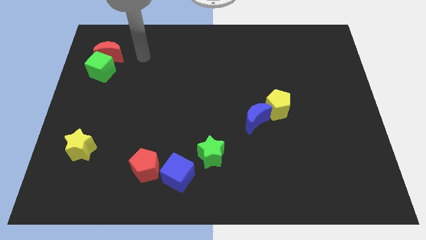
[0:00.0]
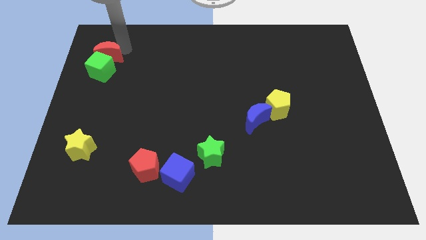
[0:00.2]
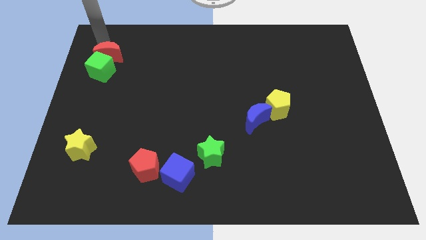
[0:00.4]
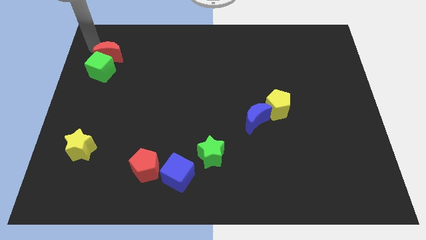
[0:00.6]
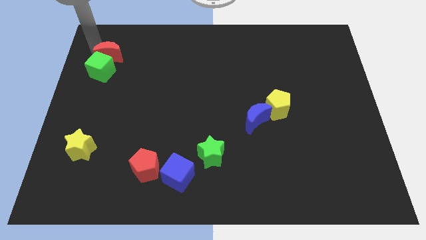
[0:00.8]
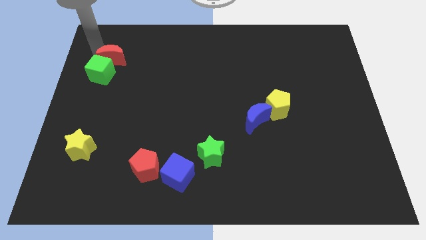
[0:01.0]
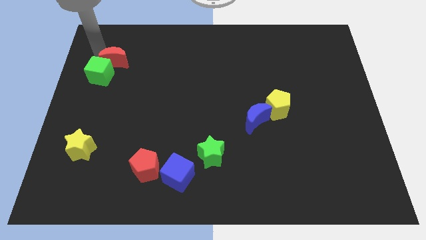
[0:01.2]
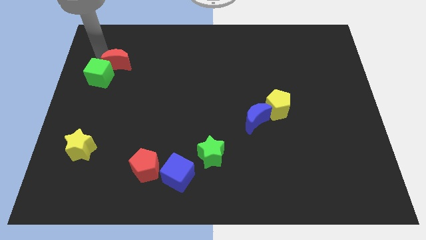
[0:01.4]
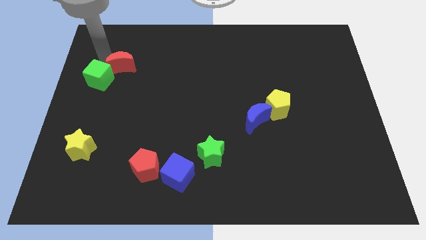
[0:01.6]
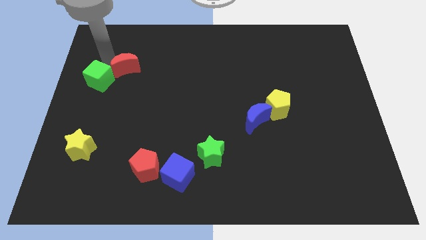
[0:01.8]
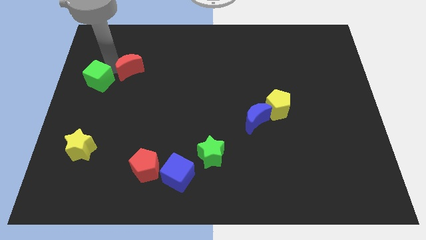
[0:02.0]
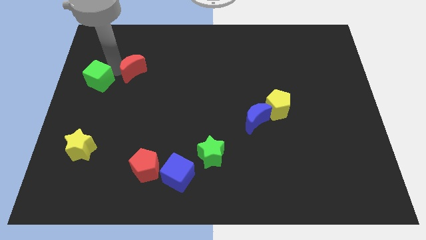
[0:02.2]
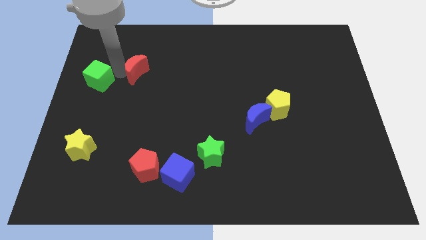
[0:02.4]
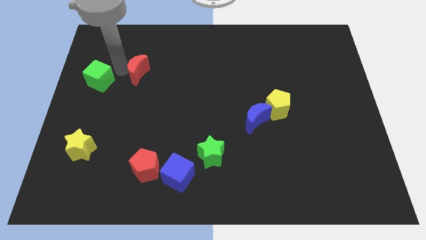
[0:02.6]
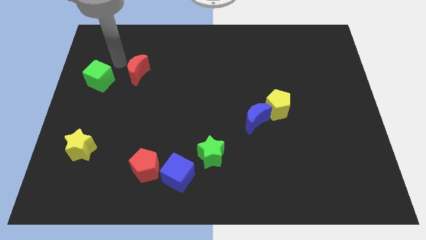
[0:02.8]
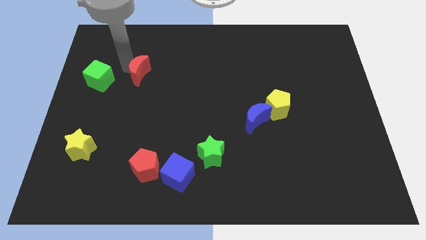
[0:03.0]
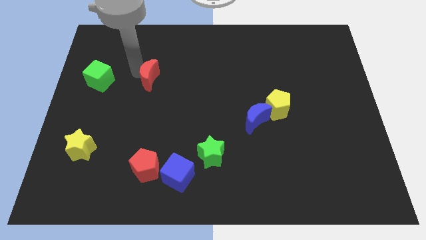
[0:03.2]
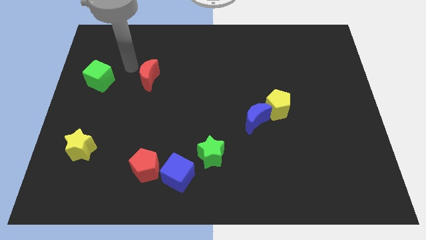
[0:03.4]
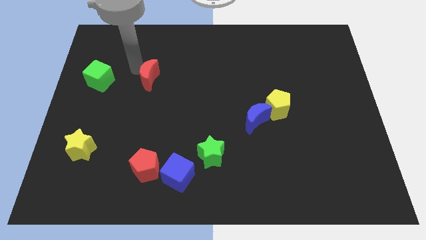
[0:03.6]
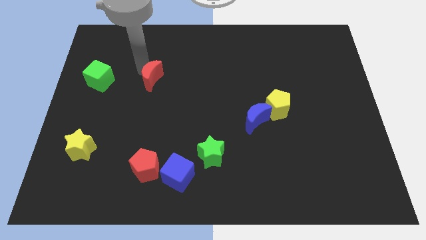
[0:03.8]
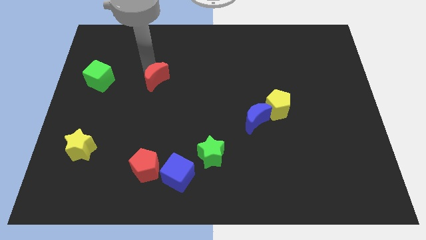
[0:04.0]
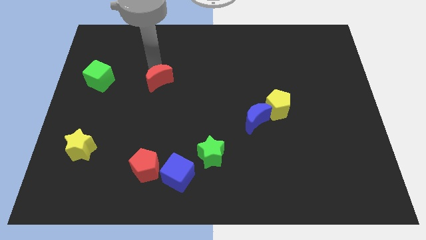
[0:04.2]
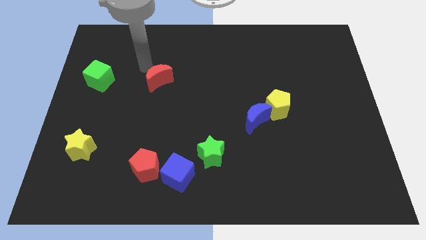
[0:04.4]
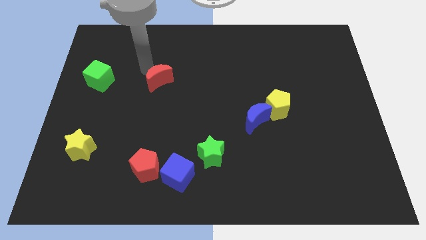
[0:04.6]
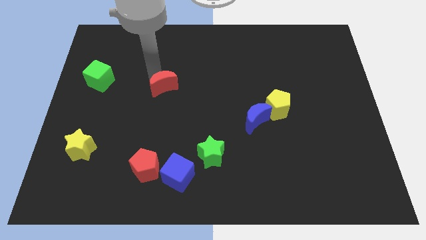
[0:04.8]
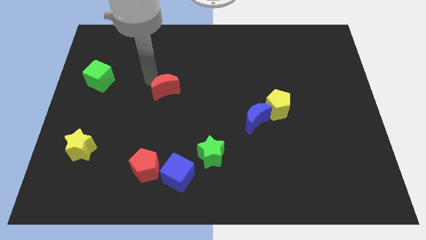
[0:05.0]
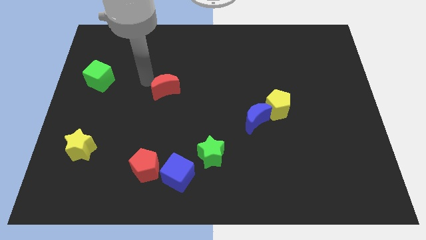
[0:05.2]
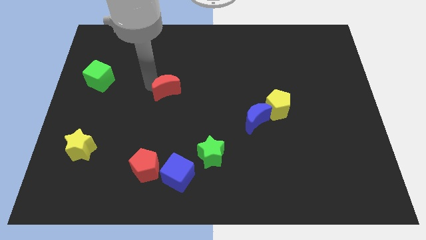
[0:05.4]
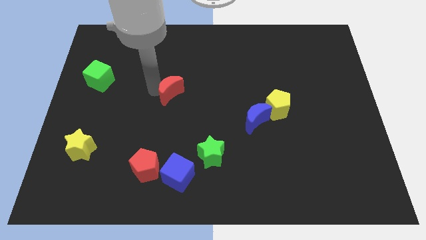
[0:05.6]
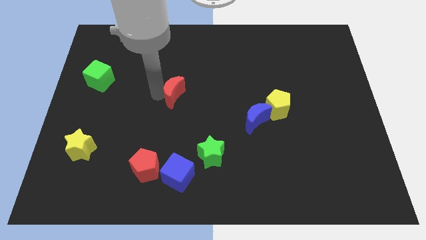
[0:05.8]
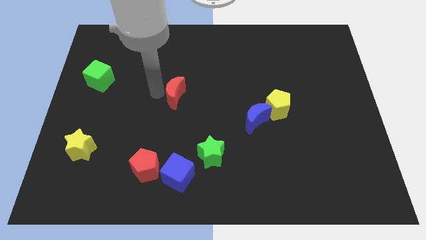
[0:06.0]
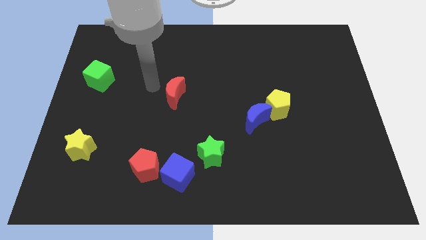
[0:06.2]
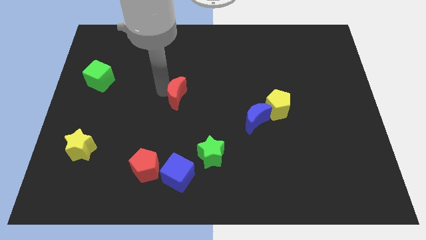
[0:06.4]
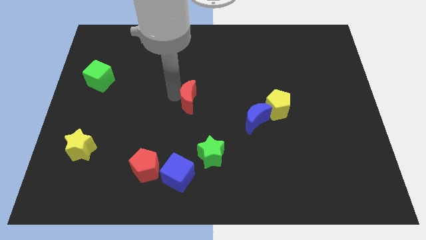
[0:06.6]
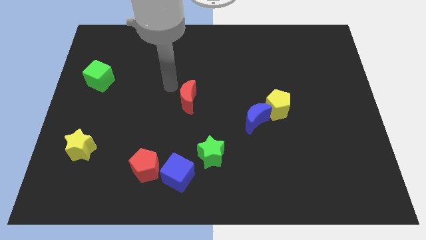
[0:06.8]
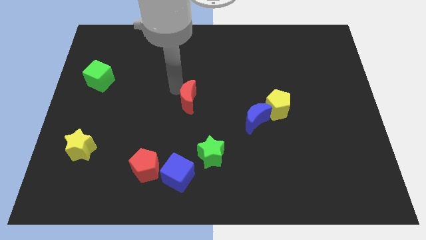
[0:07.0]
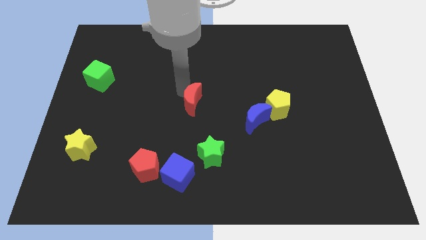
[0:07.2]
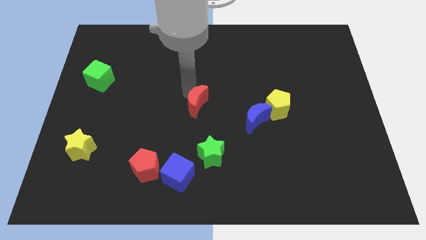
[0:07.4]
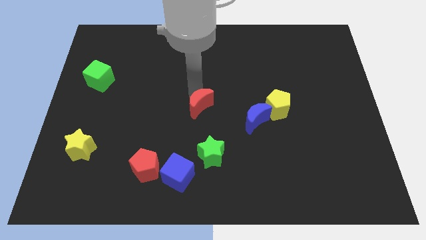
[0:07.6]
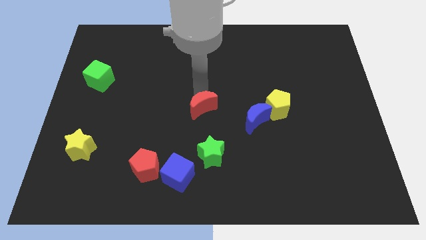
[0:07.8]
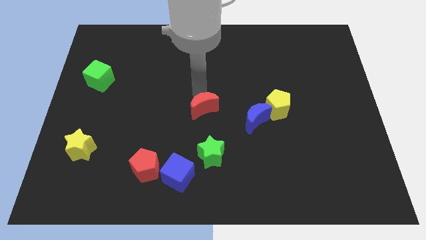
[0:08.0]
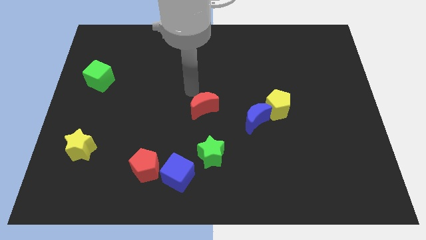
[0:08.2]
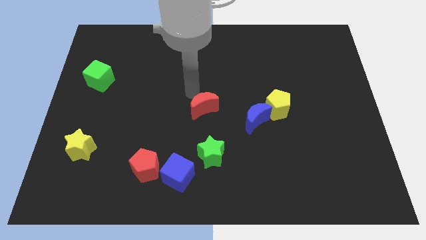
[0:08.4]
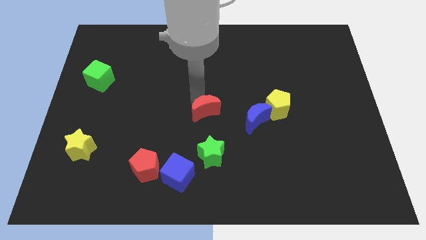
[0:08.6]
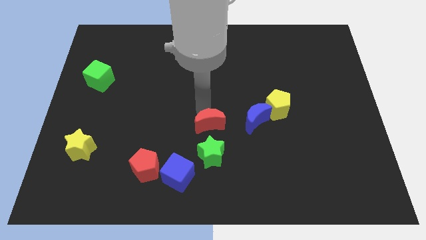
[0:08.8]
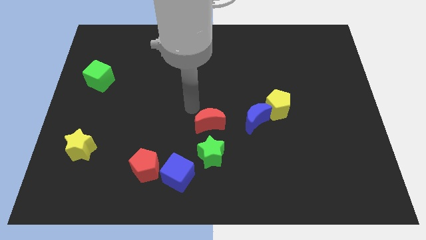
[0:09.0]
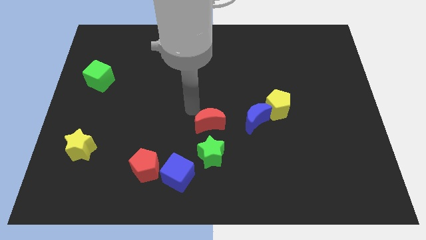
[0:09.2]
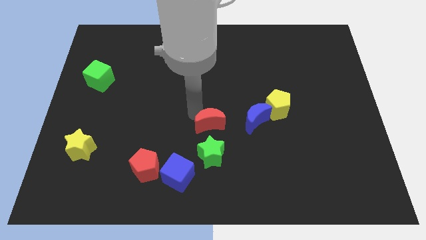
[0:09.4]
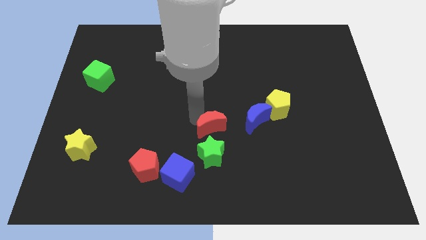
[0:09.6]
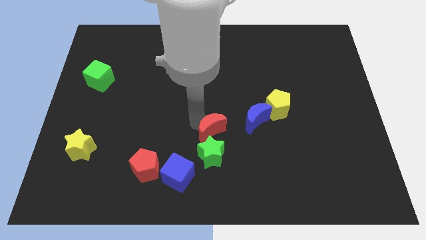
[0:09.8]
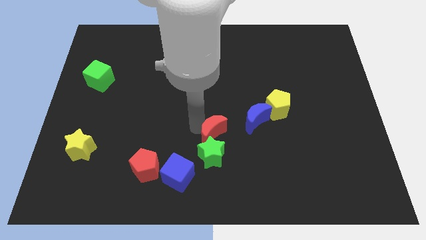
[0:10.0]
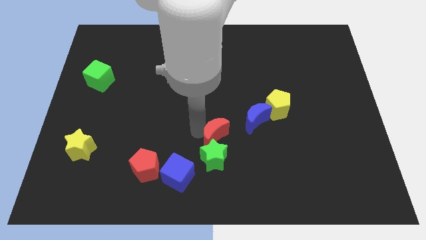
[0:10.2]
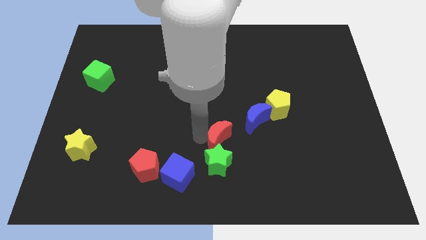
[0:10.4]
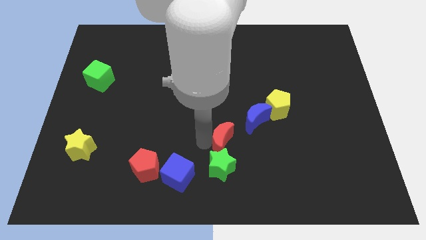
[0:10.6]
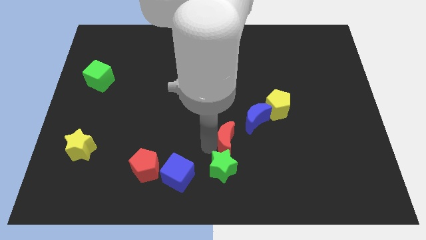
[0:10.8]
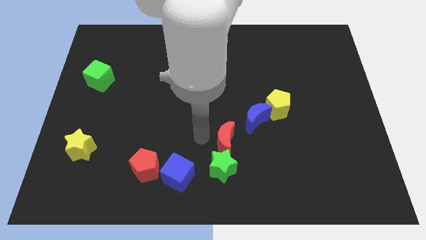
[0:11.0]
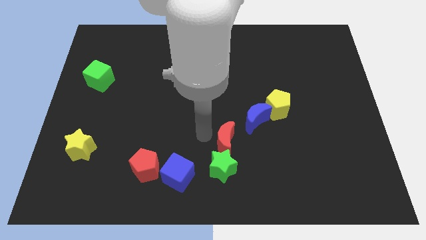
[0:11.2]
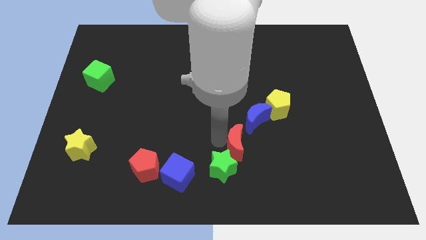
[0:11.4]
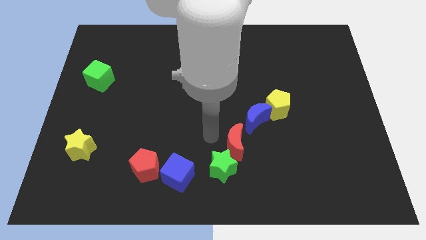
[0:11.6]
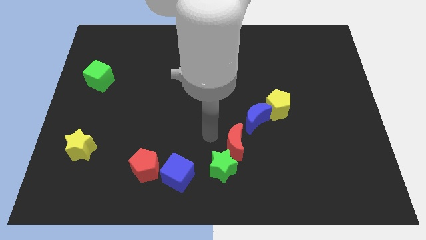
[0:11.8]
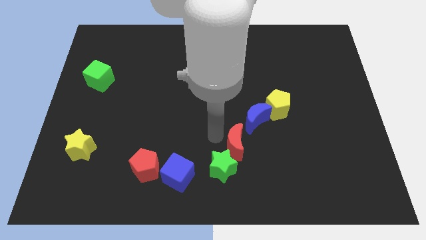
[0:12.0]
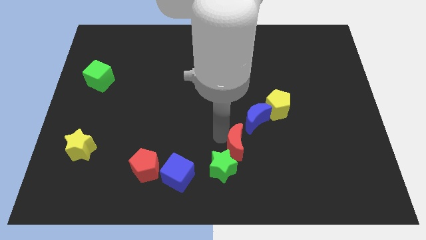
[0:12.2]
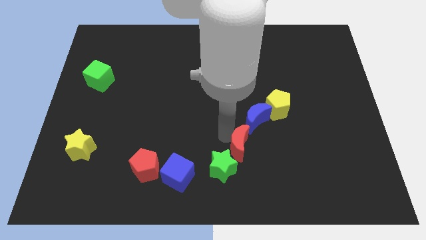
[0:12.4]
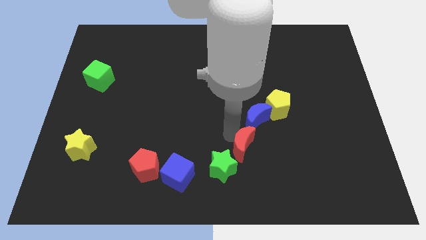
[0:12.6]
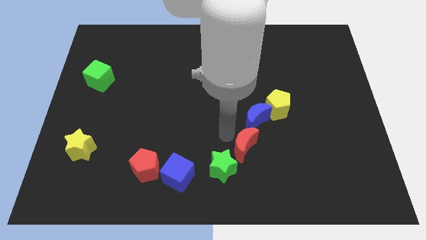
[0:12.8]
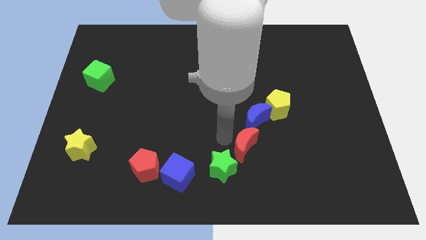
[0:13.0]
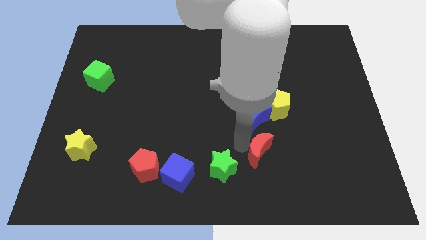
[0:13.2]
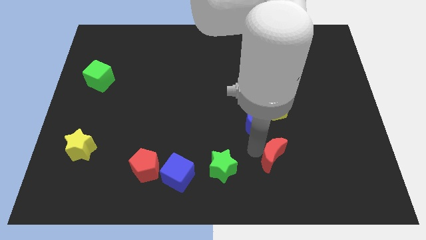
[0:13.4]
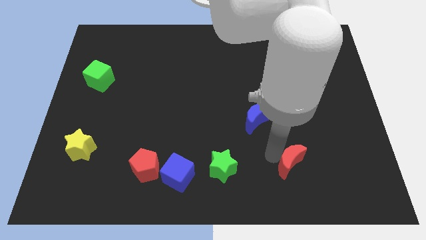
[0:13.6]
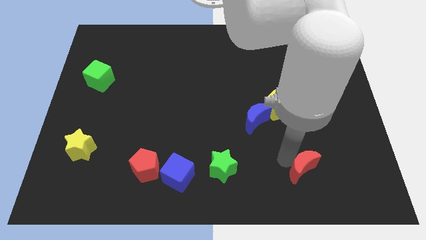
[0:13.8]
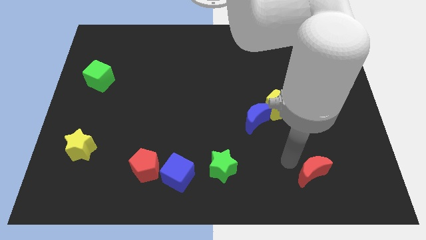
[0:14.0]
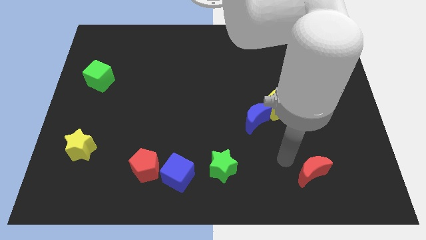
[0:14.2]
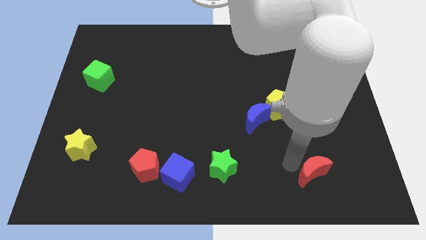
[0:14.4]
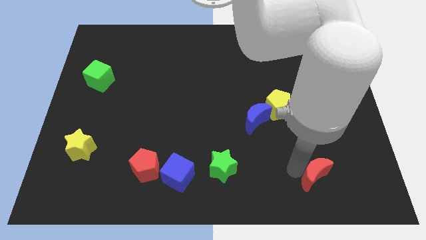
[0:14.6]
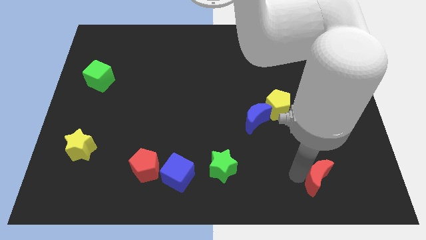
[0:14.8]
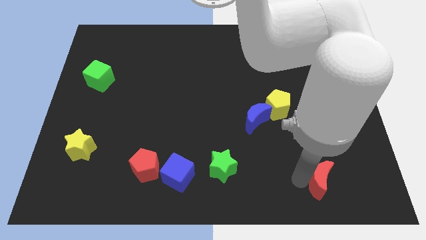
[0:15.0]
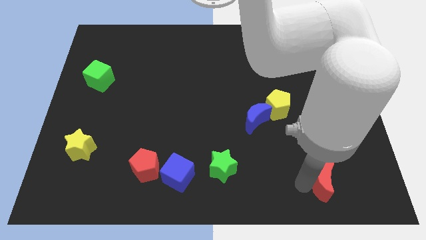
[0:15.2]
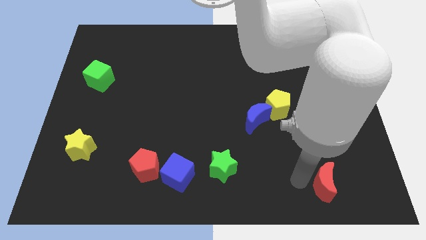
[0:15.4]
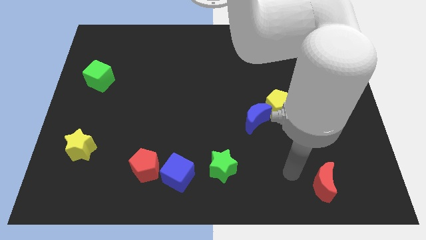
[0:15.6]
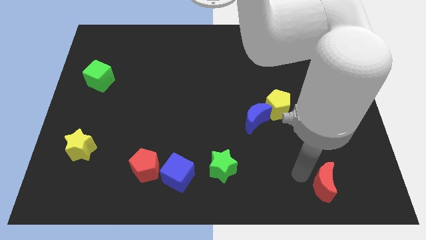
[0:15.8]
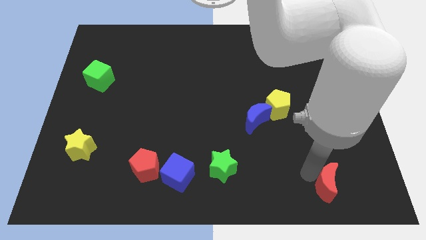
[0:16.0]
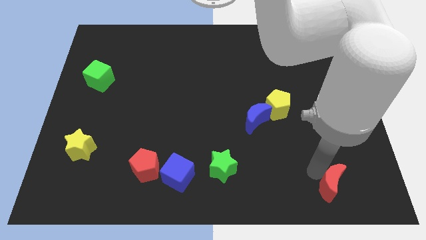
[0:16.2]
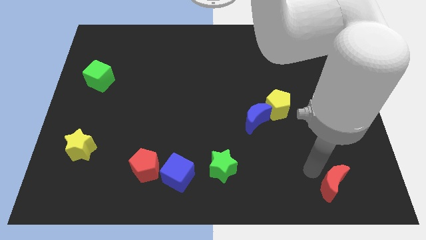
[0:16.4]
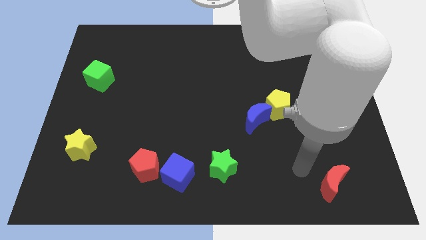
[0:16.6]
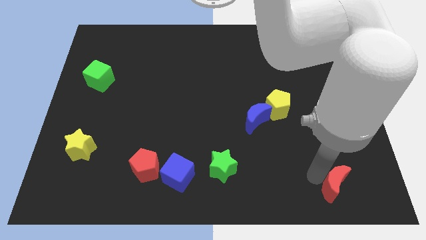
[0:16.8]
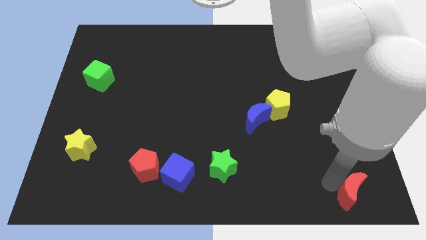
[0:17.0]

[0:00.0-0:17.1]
push the red moon to the bottom right
